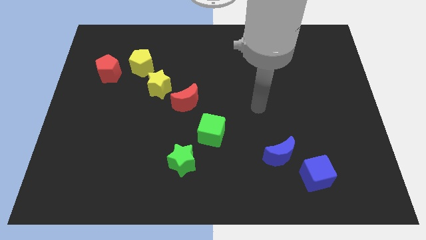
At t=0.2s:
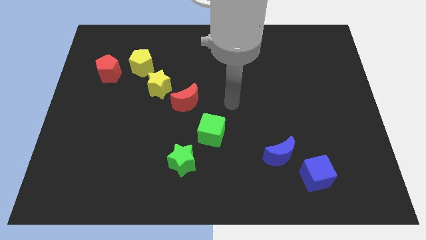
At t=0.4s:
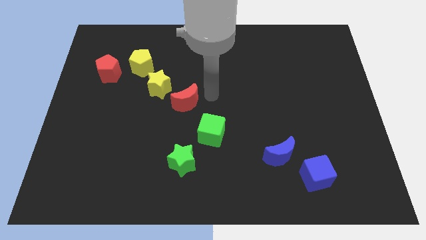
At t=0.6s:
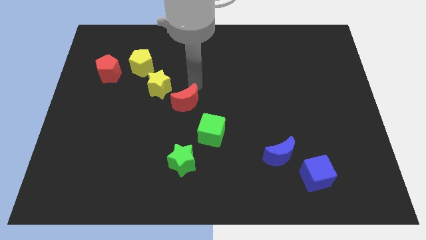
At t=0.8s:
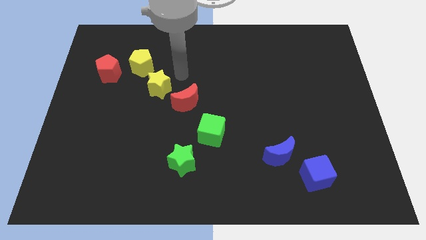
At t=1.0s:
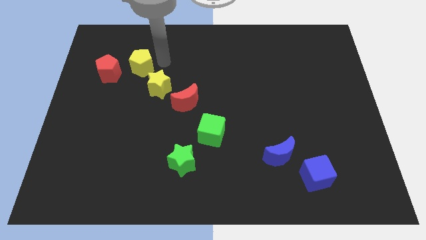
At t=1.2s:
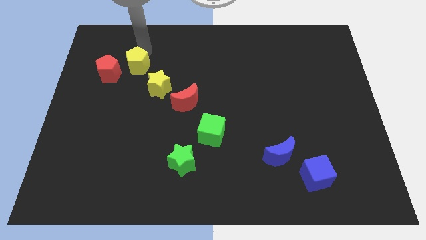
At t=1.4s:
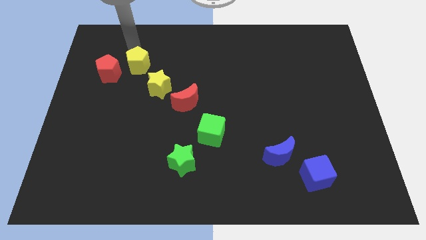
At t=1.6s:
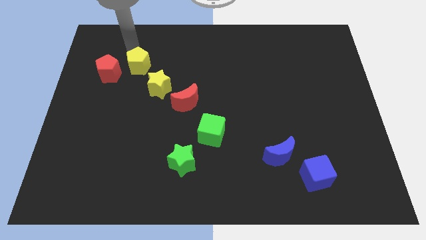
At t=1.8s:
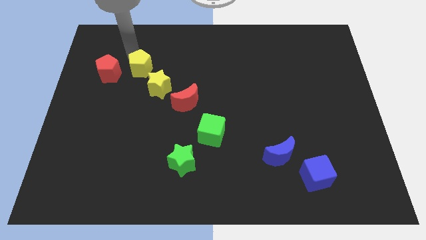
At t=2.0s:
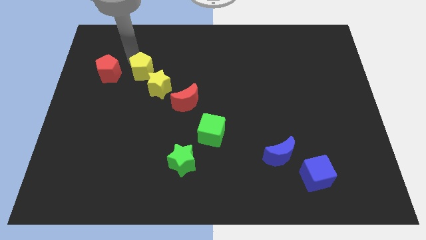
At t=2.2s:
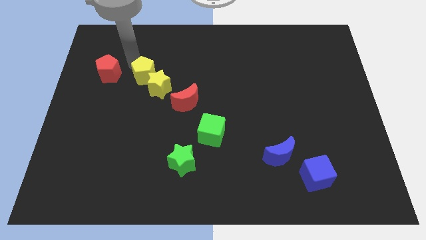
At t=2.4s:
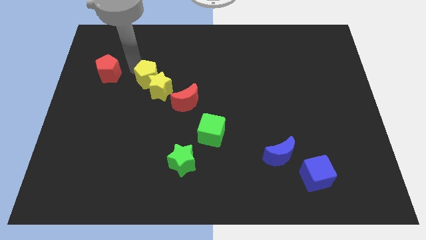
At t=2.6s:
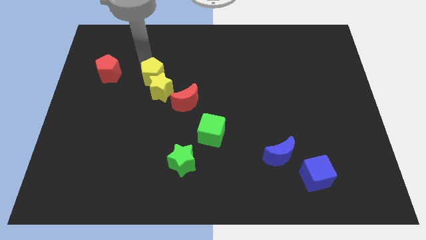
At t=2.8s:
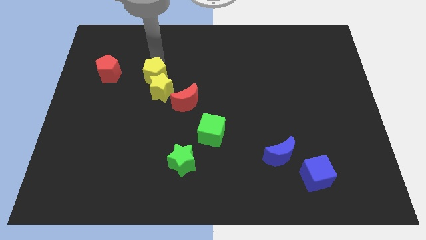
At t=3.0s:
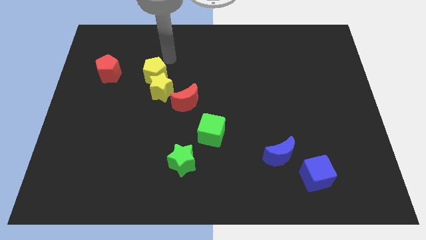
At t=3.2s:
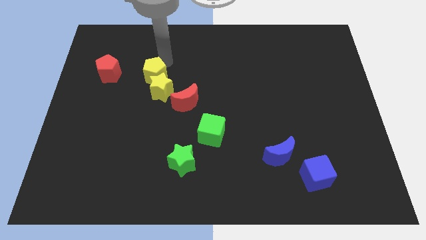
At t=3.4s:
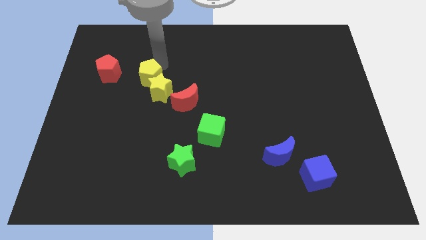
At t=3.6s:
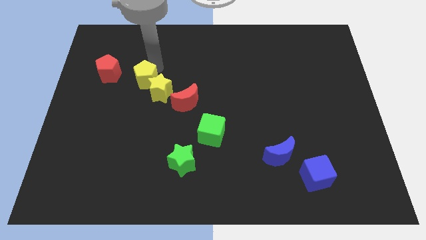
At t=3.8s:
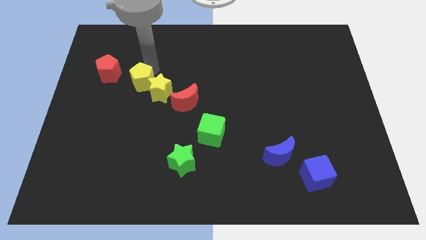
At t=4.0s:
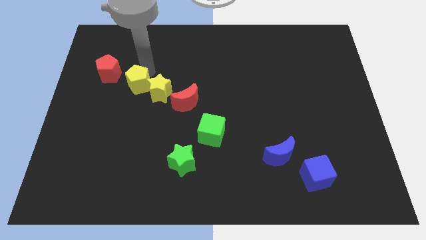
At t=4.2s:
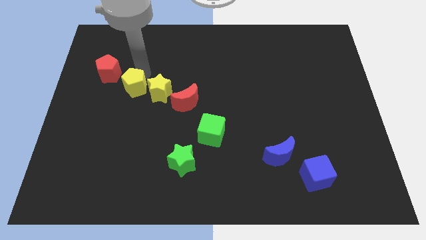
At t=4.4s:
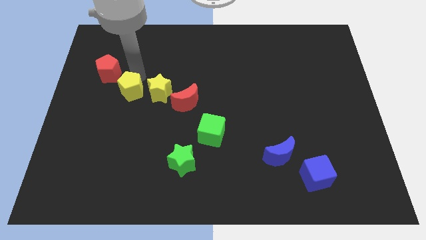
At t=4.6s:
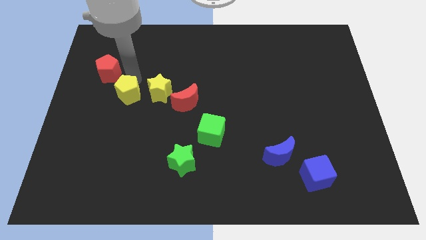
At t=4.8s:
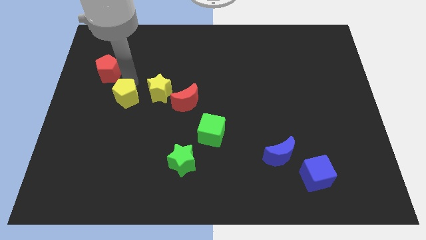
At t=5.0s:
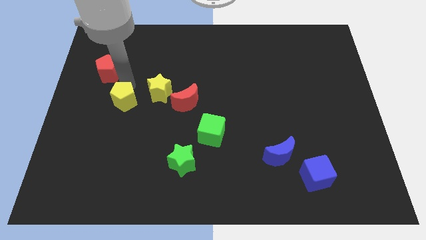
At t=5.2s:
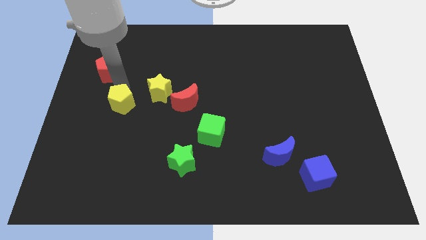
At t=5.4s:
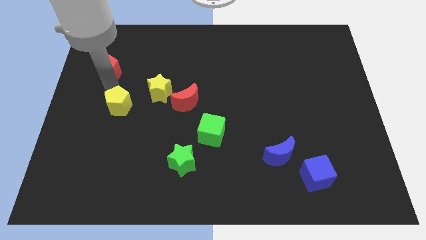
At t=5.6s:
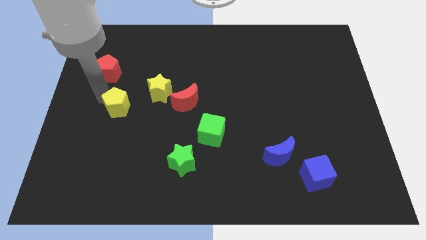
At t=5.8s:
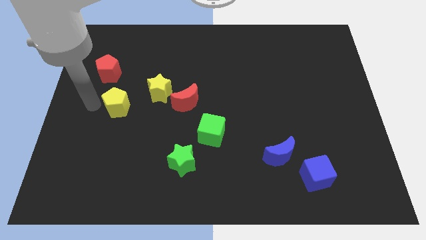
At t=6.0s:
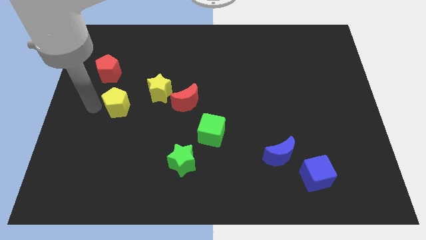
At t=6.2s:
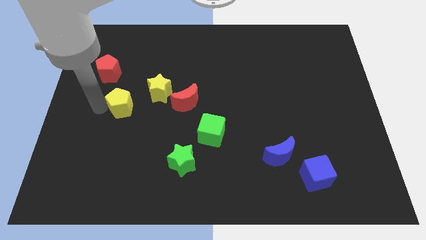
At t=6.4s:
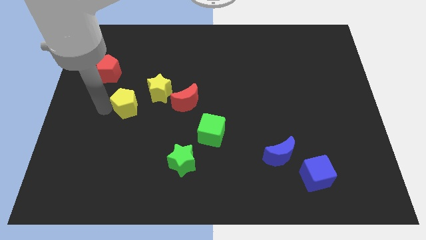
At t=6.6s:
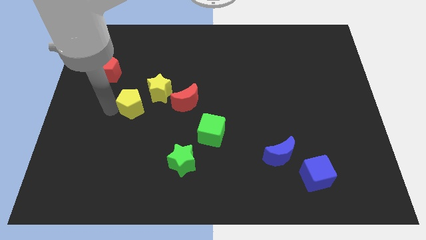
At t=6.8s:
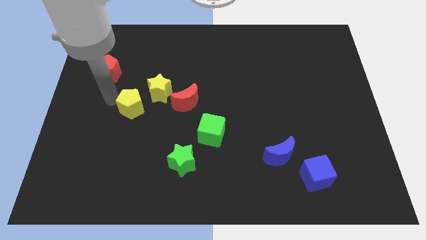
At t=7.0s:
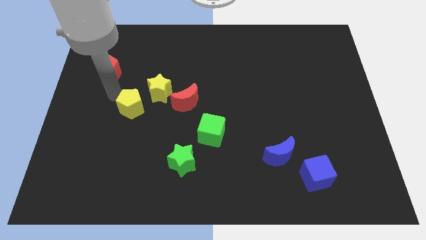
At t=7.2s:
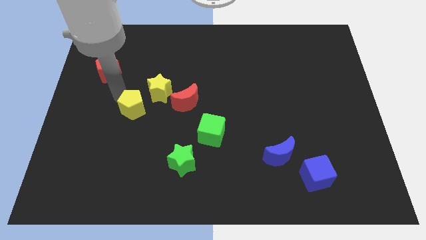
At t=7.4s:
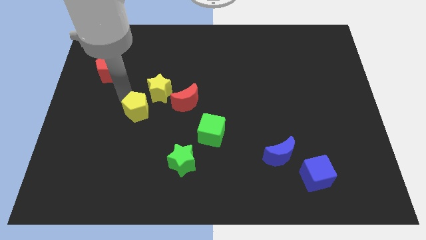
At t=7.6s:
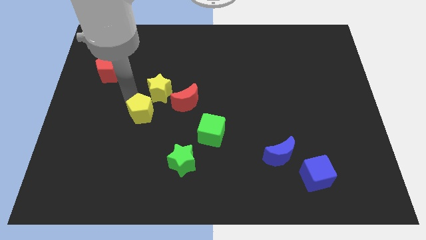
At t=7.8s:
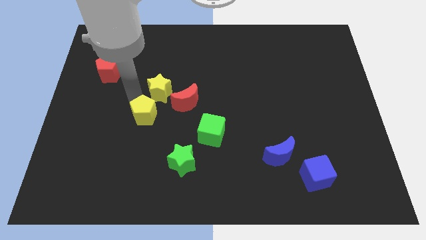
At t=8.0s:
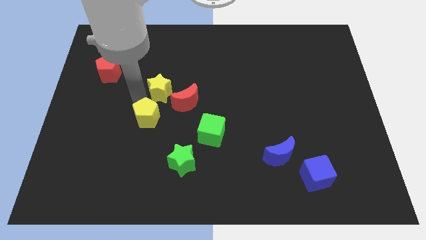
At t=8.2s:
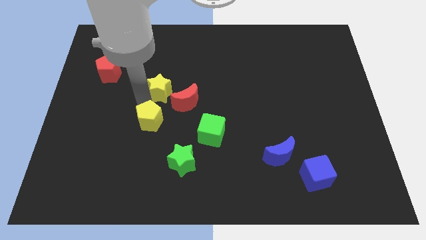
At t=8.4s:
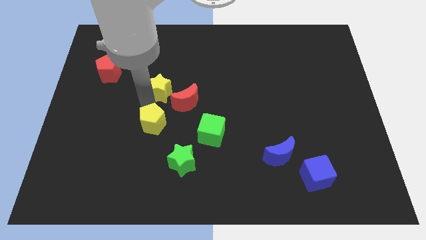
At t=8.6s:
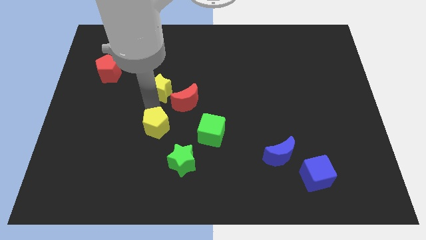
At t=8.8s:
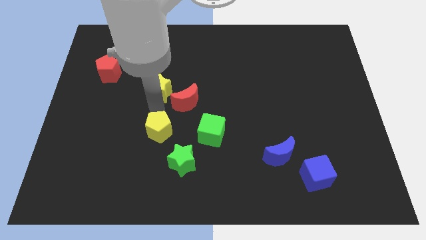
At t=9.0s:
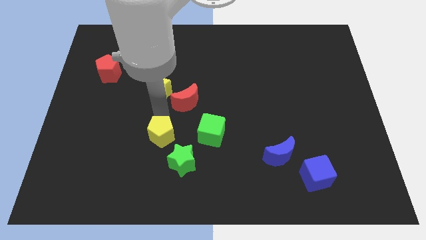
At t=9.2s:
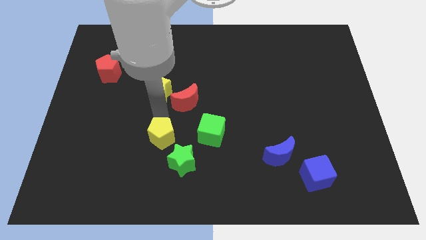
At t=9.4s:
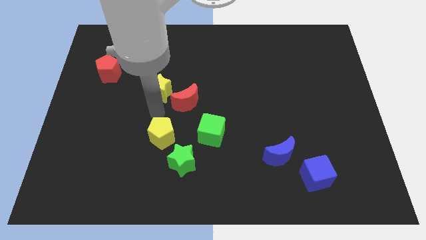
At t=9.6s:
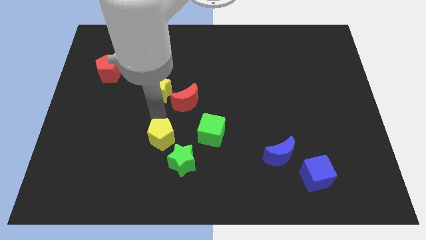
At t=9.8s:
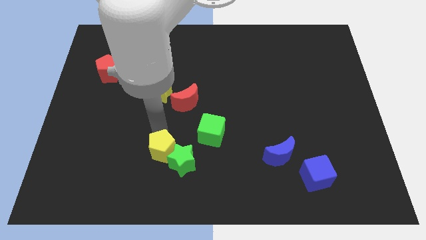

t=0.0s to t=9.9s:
move the yellow pentagon close to the green star

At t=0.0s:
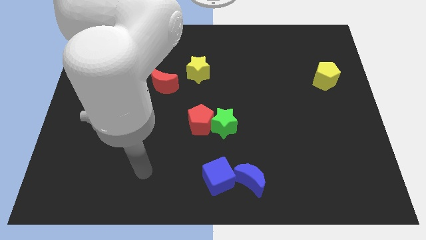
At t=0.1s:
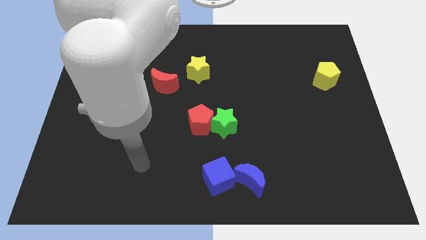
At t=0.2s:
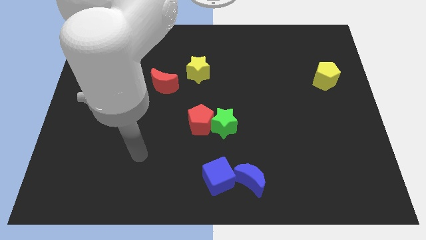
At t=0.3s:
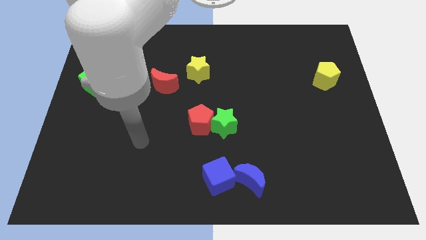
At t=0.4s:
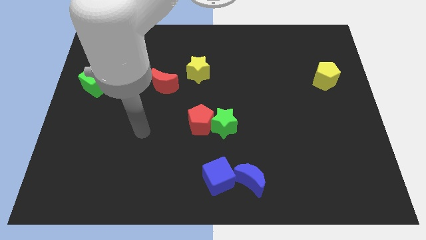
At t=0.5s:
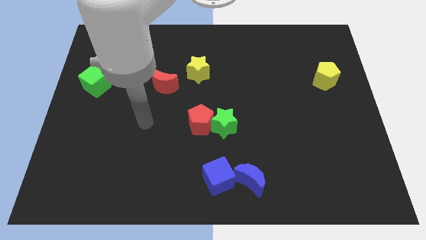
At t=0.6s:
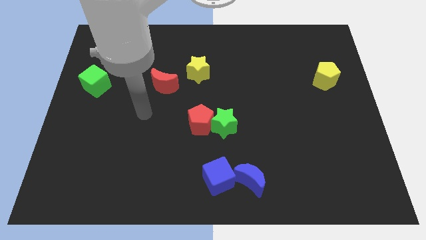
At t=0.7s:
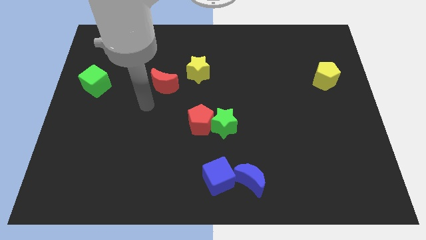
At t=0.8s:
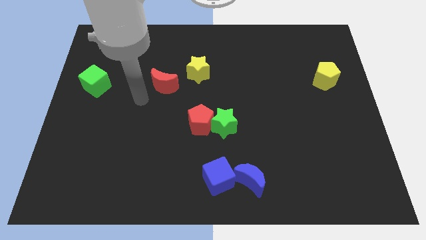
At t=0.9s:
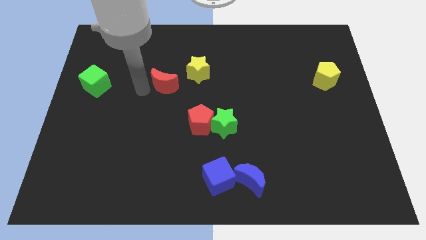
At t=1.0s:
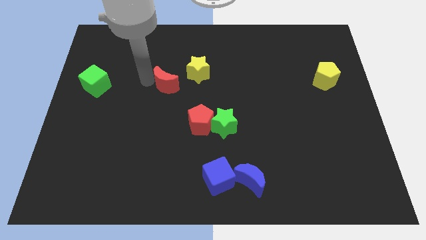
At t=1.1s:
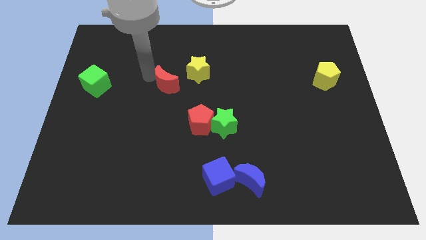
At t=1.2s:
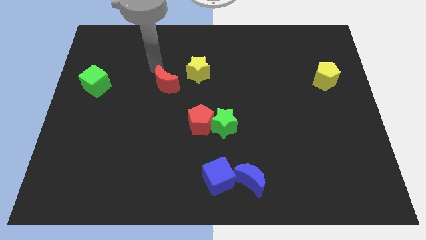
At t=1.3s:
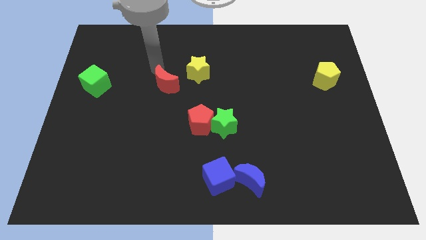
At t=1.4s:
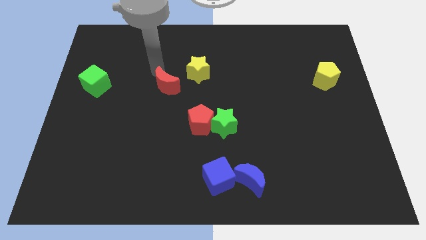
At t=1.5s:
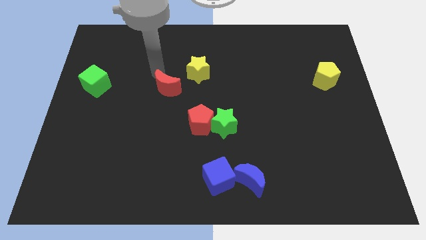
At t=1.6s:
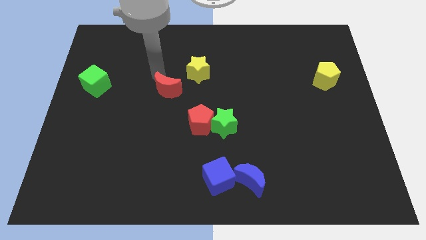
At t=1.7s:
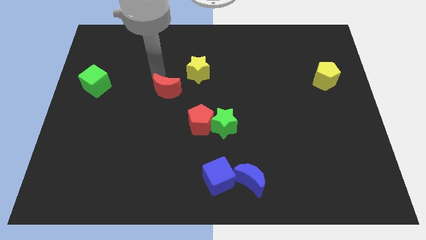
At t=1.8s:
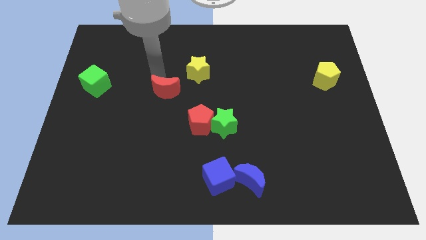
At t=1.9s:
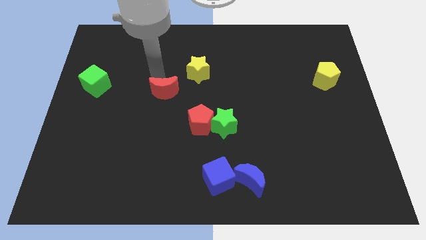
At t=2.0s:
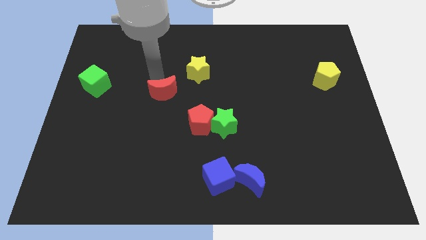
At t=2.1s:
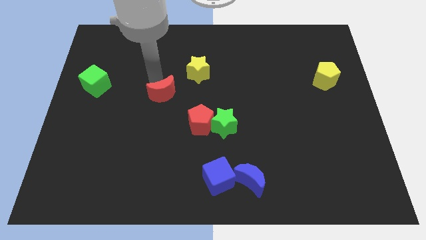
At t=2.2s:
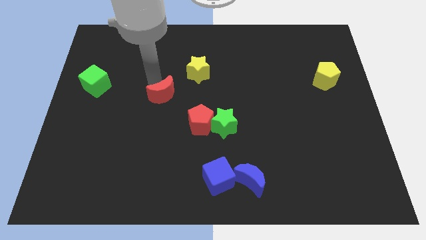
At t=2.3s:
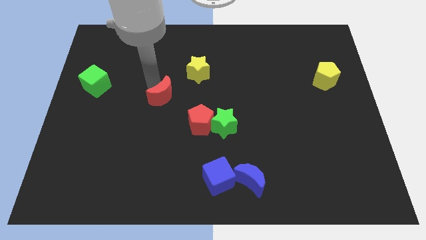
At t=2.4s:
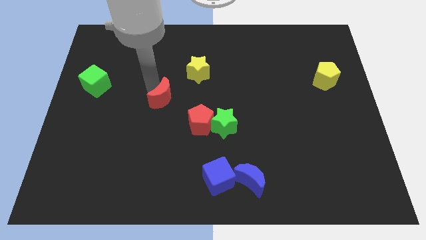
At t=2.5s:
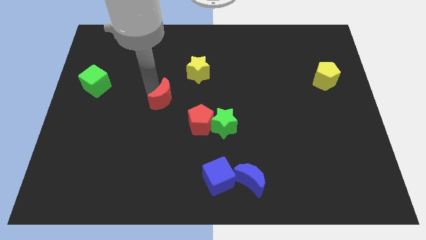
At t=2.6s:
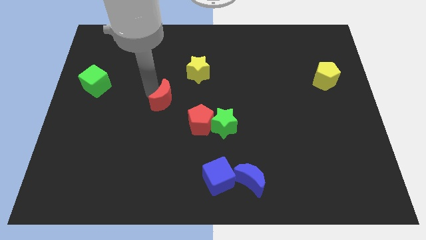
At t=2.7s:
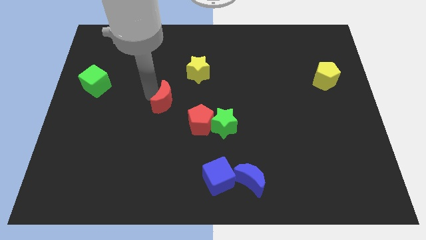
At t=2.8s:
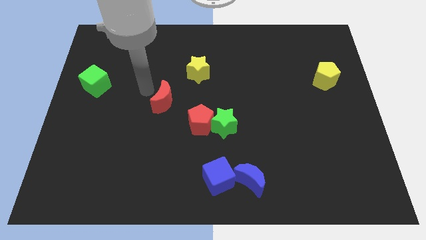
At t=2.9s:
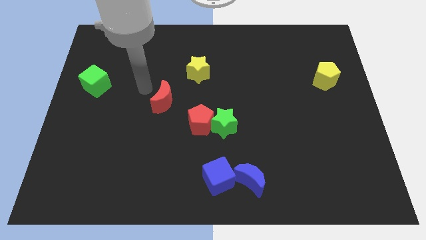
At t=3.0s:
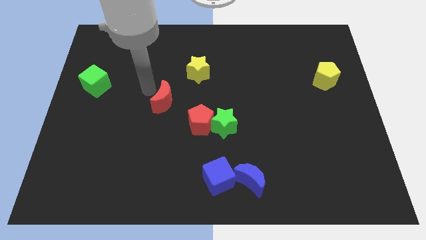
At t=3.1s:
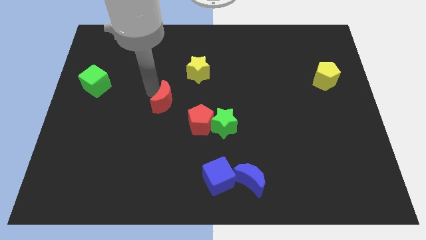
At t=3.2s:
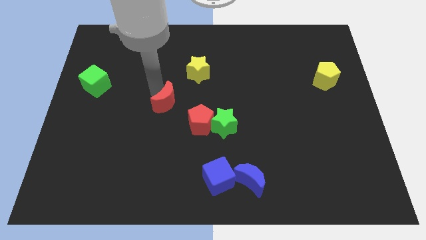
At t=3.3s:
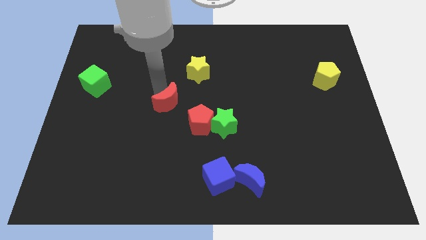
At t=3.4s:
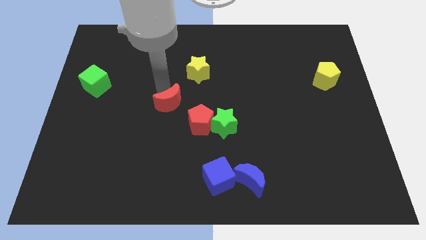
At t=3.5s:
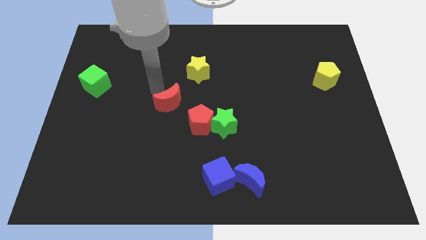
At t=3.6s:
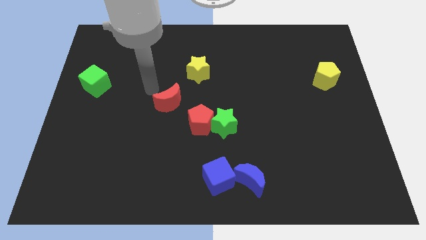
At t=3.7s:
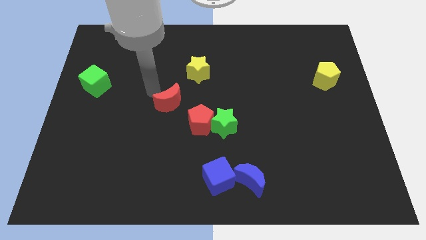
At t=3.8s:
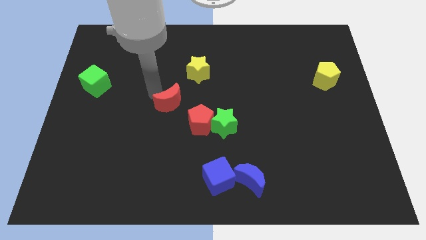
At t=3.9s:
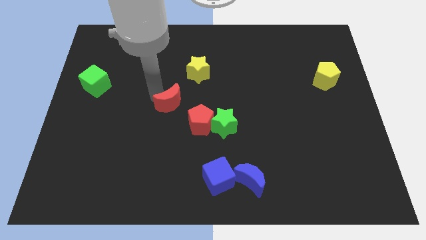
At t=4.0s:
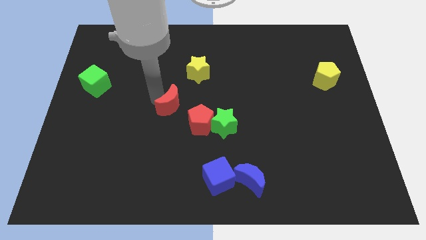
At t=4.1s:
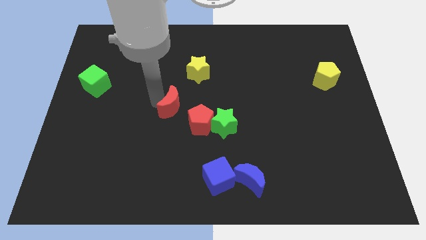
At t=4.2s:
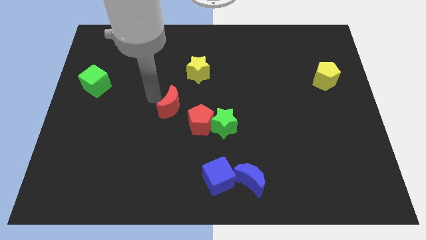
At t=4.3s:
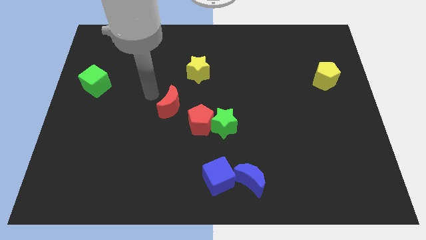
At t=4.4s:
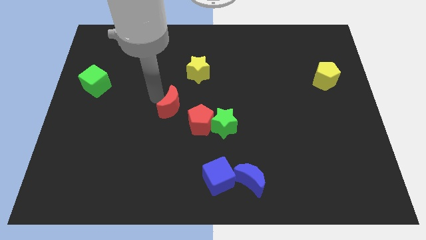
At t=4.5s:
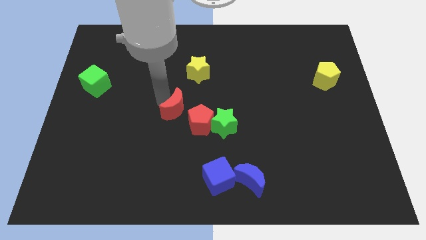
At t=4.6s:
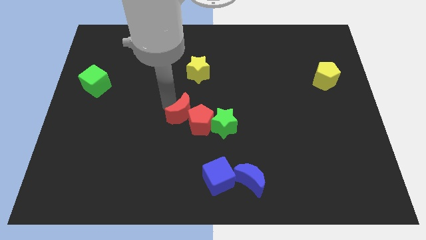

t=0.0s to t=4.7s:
put the red moon close to the red pentagon
